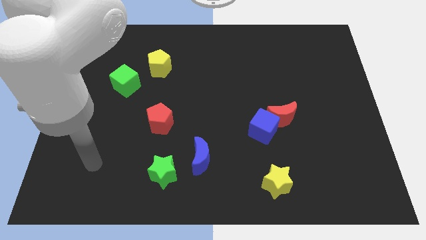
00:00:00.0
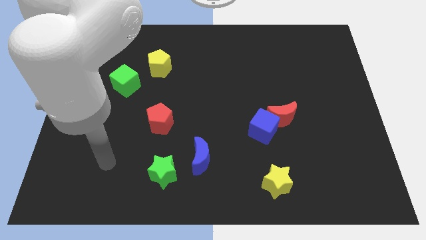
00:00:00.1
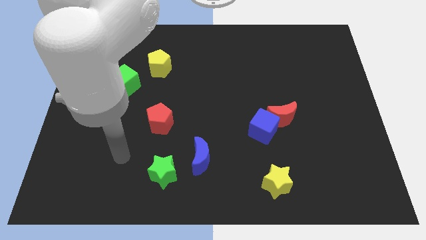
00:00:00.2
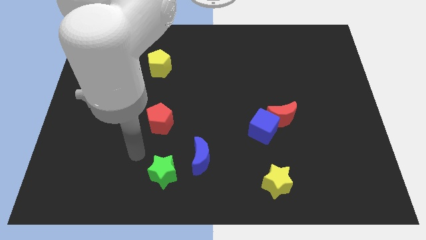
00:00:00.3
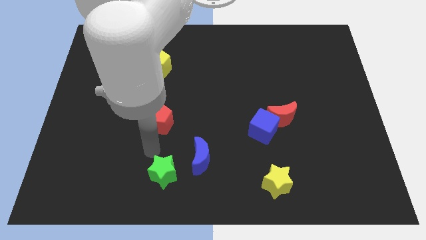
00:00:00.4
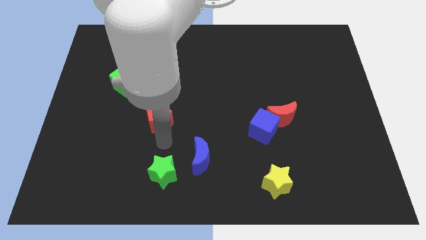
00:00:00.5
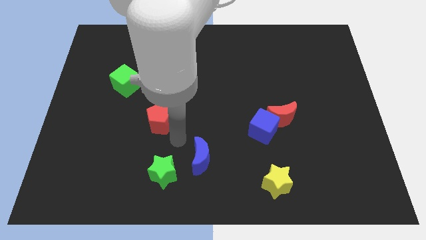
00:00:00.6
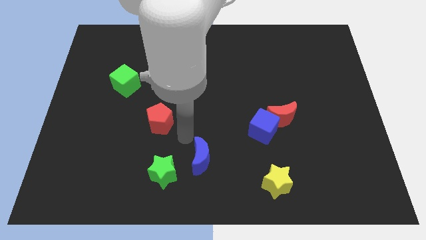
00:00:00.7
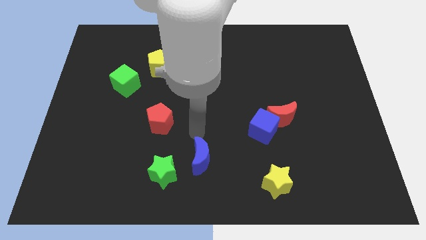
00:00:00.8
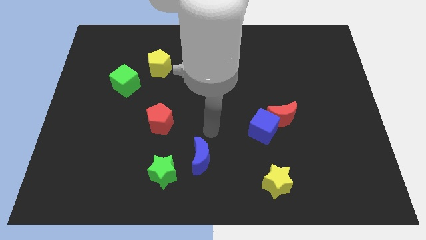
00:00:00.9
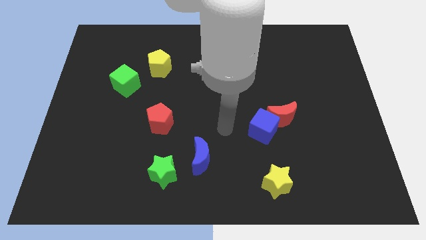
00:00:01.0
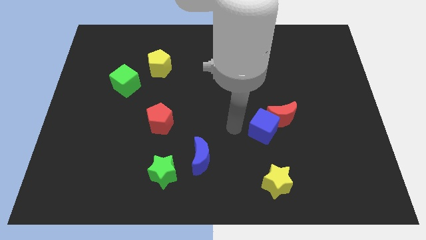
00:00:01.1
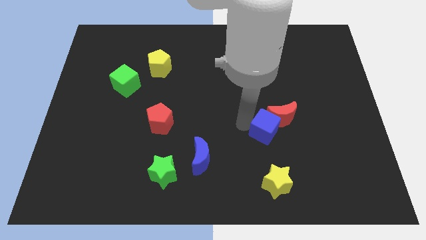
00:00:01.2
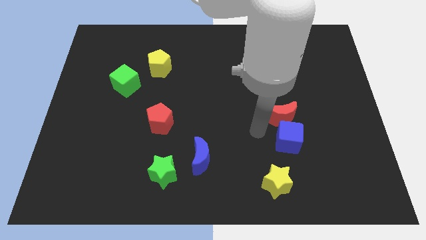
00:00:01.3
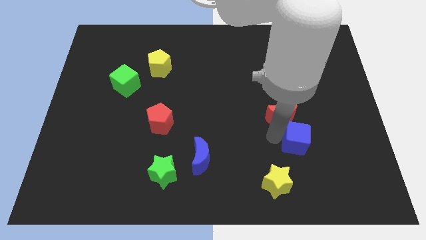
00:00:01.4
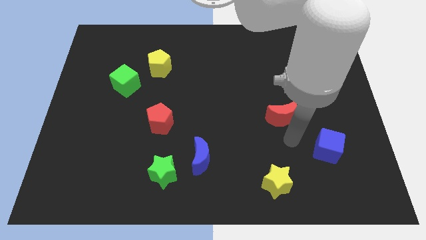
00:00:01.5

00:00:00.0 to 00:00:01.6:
separate the red moon from the blue cube

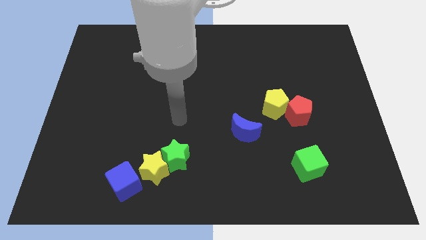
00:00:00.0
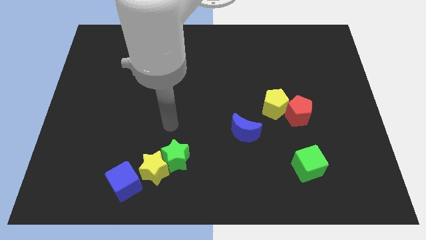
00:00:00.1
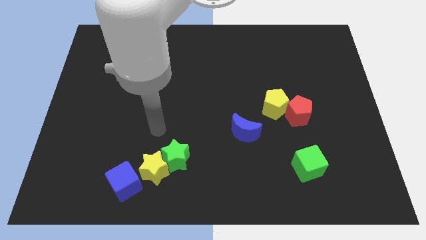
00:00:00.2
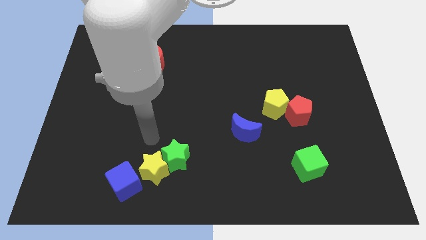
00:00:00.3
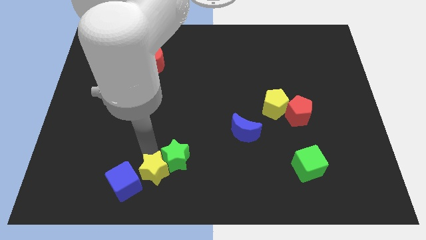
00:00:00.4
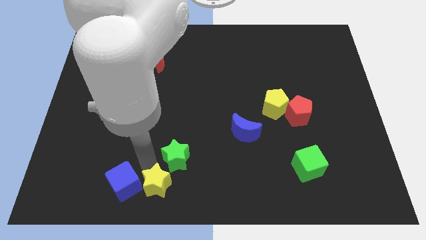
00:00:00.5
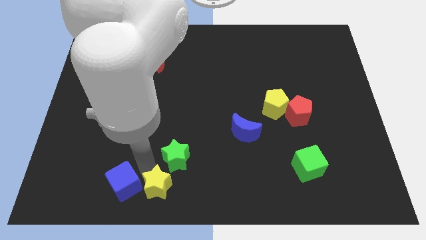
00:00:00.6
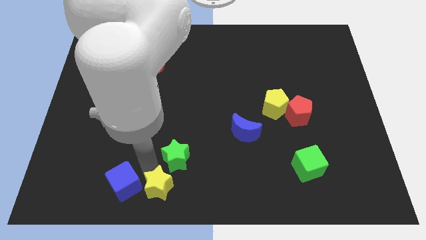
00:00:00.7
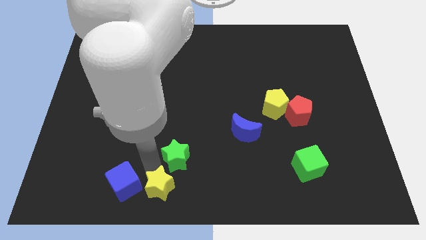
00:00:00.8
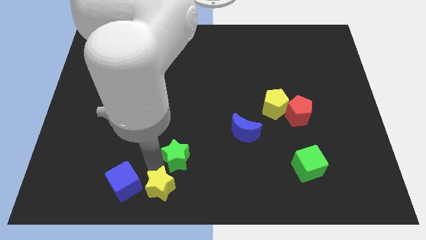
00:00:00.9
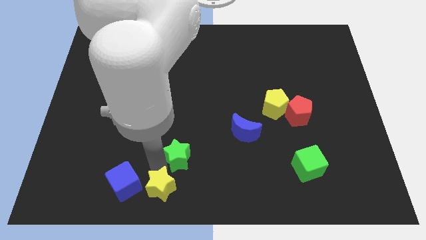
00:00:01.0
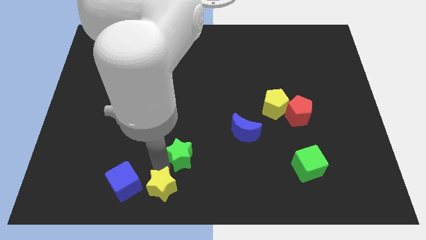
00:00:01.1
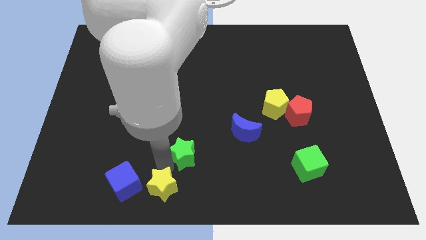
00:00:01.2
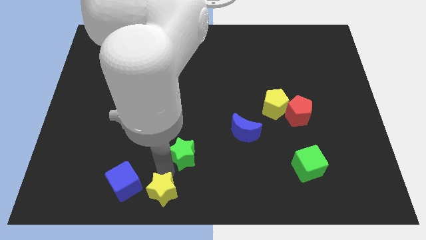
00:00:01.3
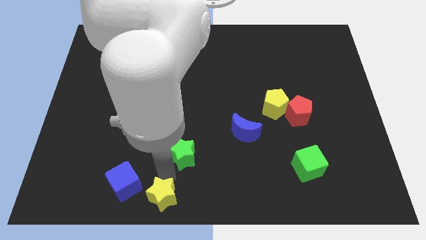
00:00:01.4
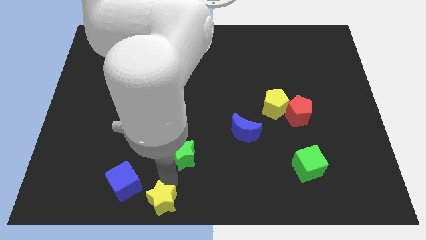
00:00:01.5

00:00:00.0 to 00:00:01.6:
move the green star away from the yellow star

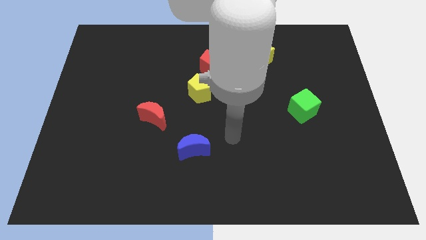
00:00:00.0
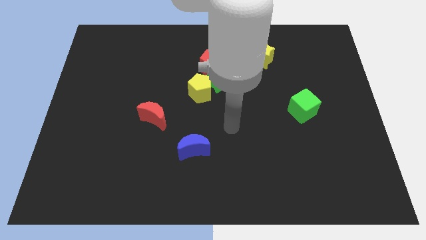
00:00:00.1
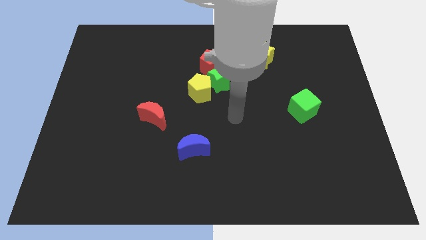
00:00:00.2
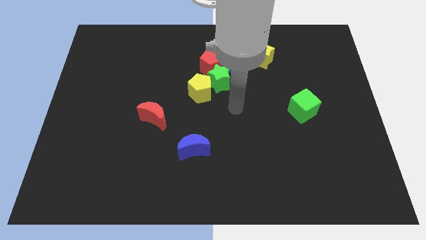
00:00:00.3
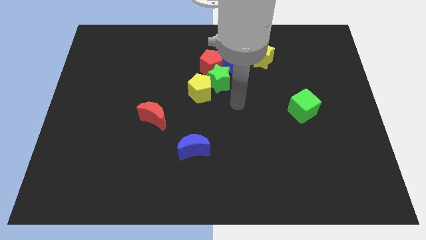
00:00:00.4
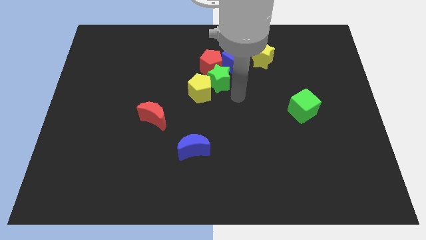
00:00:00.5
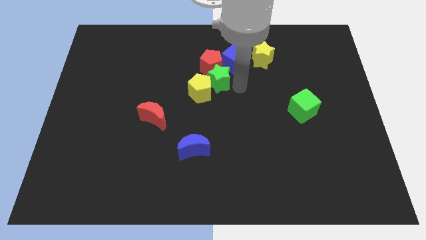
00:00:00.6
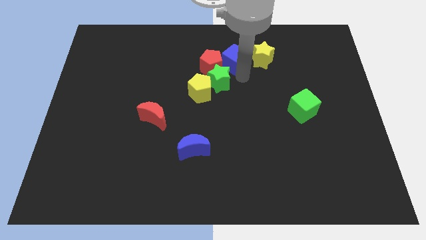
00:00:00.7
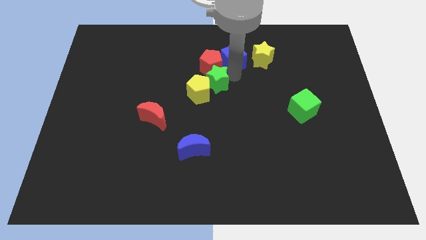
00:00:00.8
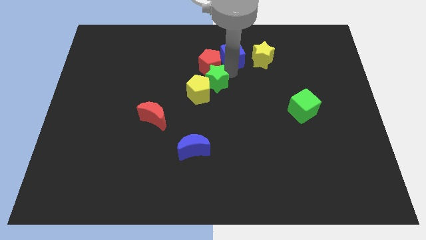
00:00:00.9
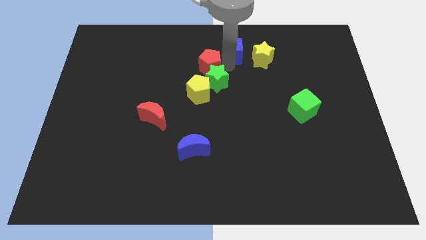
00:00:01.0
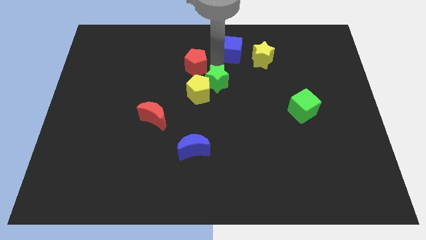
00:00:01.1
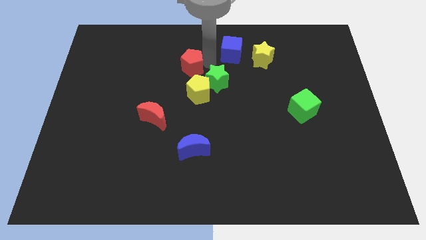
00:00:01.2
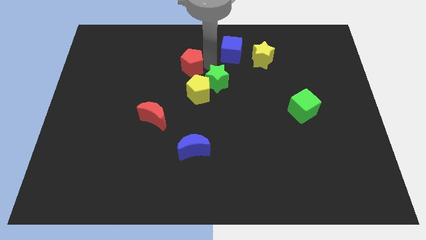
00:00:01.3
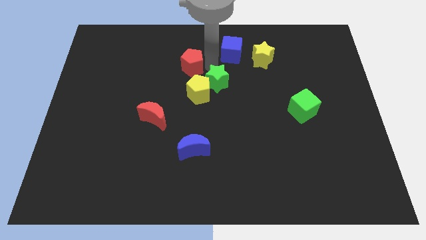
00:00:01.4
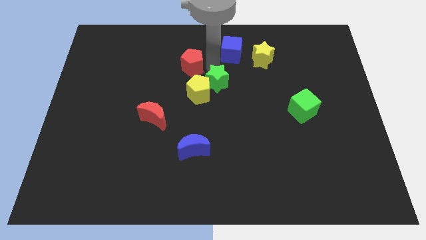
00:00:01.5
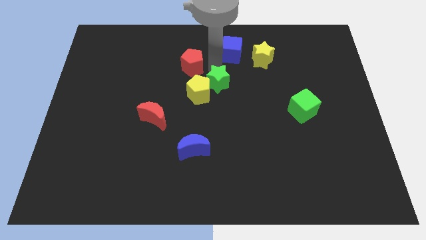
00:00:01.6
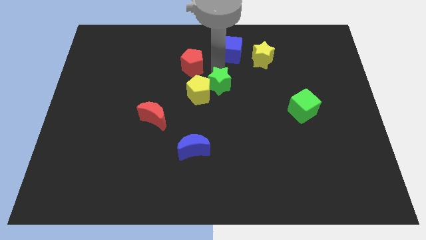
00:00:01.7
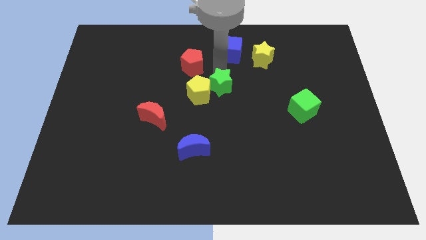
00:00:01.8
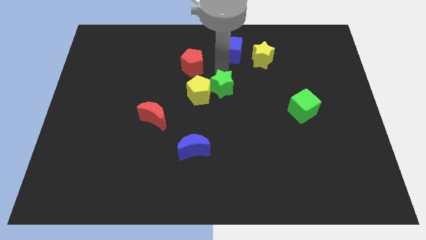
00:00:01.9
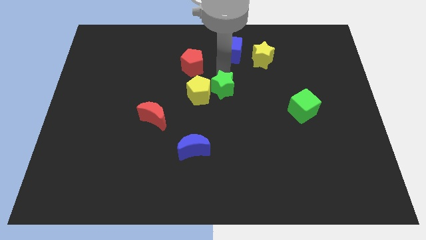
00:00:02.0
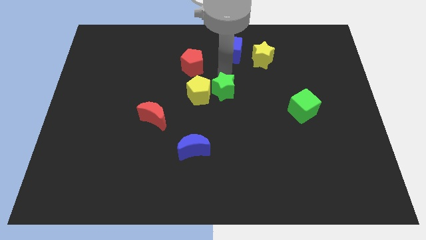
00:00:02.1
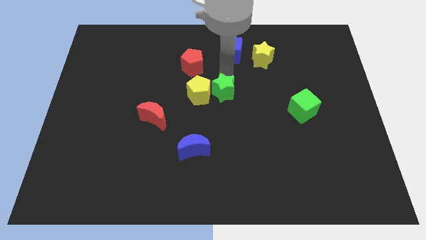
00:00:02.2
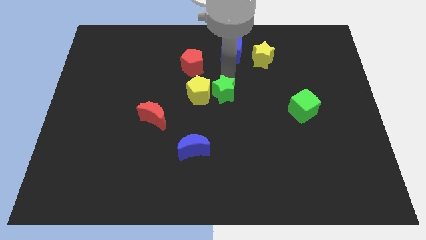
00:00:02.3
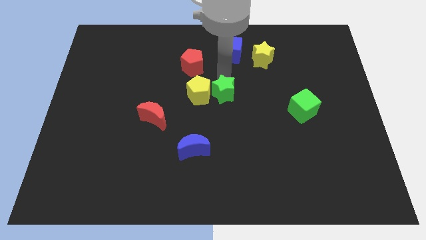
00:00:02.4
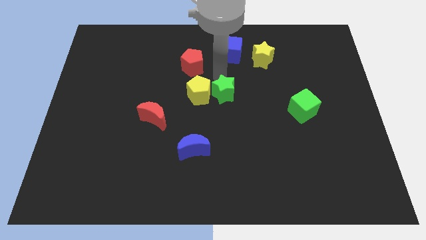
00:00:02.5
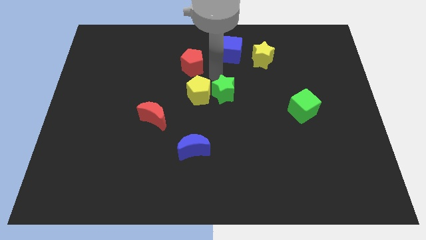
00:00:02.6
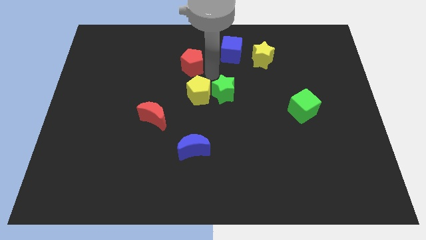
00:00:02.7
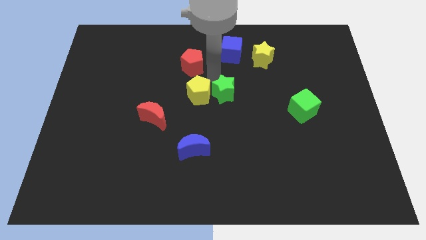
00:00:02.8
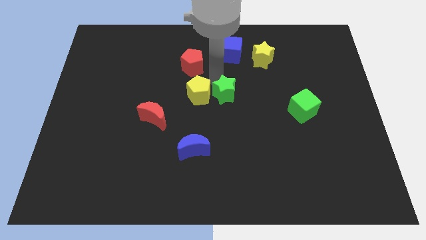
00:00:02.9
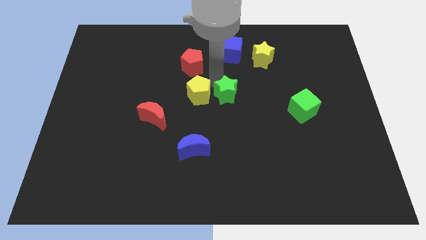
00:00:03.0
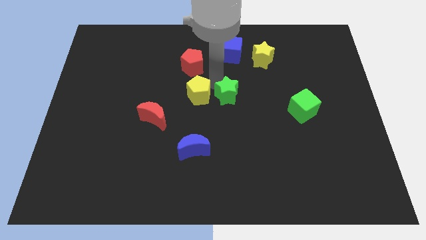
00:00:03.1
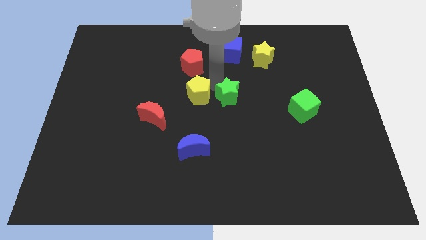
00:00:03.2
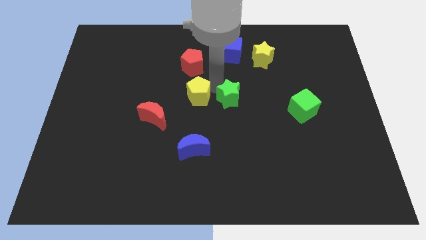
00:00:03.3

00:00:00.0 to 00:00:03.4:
separate the green star from the group of blocks

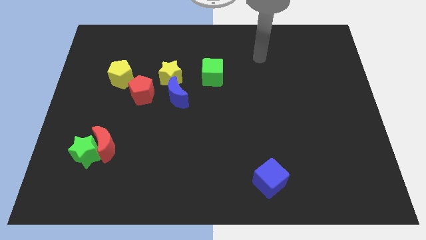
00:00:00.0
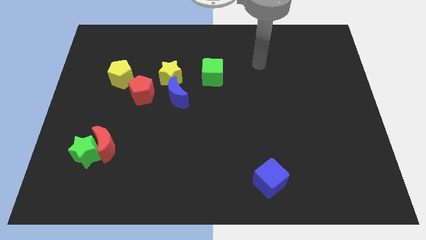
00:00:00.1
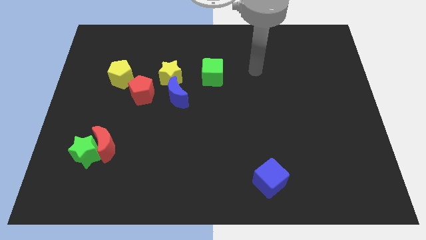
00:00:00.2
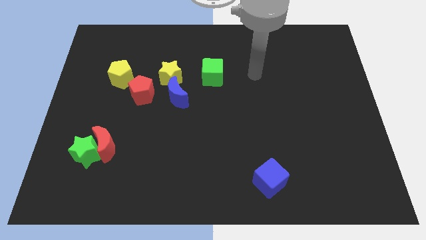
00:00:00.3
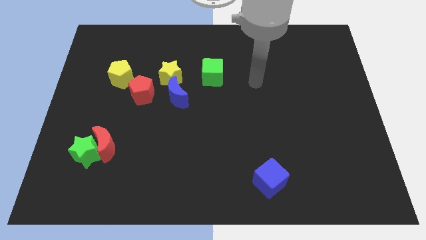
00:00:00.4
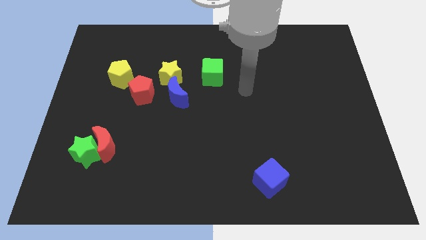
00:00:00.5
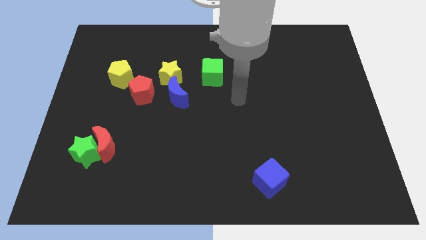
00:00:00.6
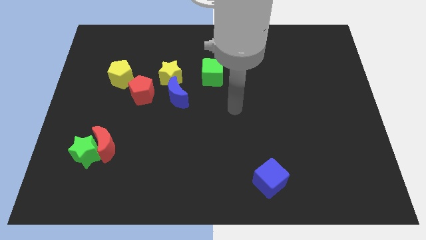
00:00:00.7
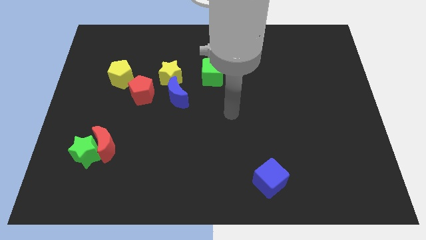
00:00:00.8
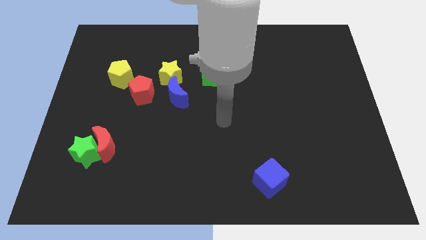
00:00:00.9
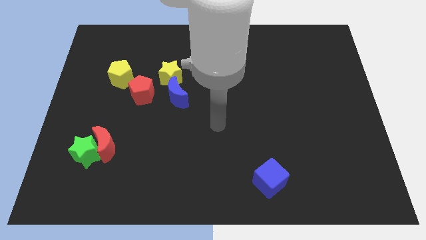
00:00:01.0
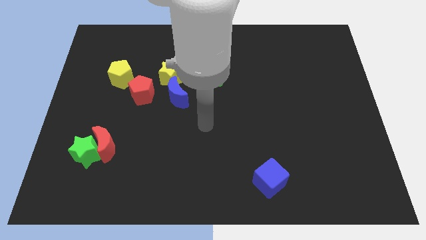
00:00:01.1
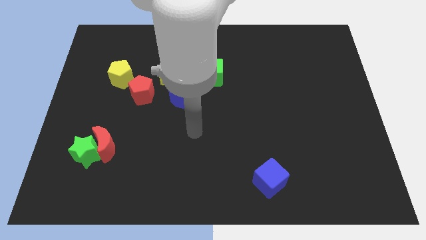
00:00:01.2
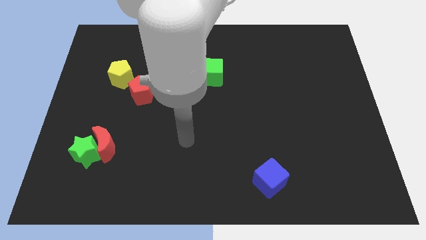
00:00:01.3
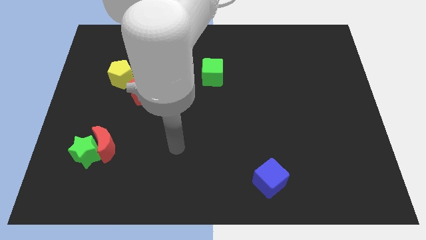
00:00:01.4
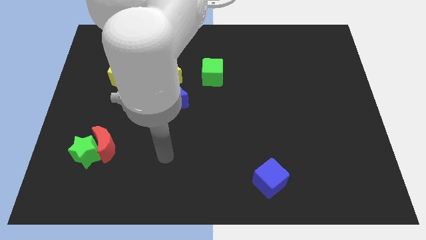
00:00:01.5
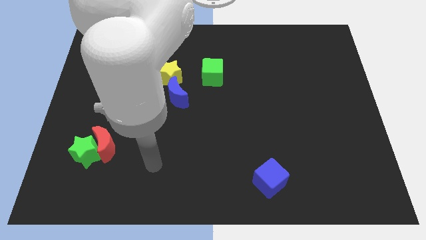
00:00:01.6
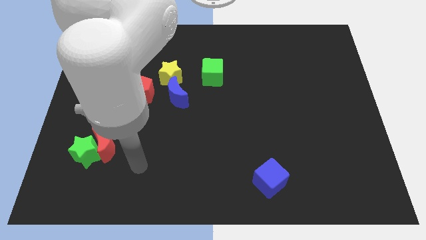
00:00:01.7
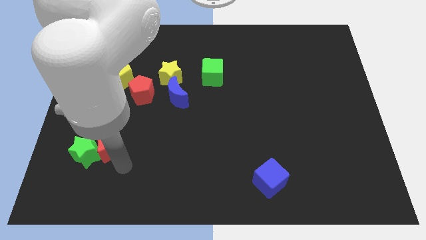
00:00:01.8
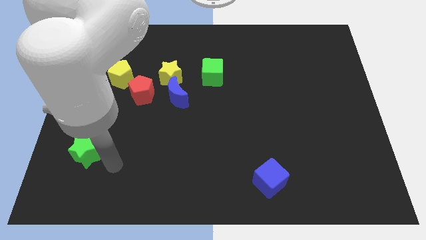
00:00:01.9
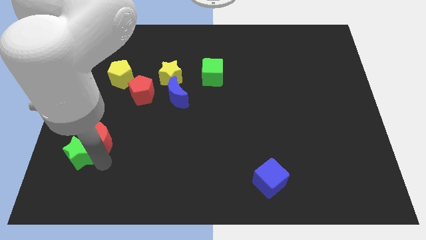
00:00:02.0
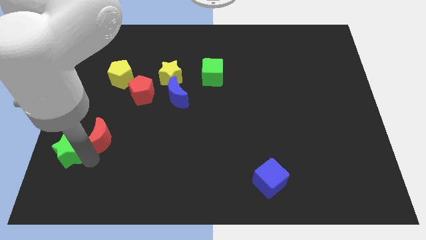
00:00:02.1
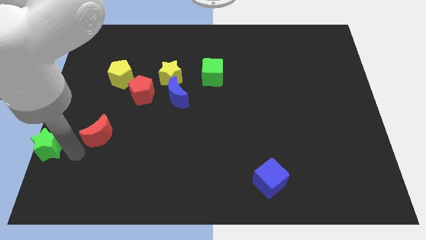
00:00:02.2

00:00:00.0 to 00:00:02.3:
separate the red moon from the green star

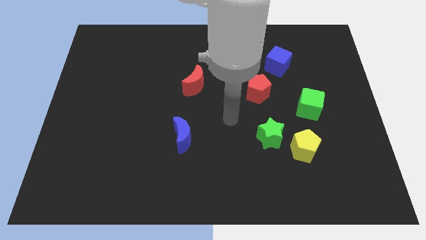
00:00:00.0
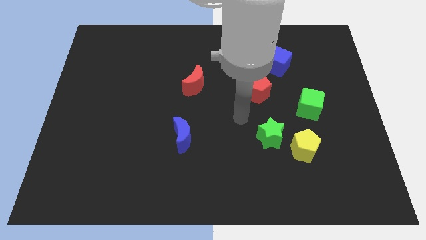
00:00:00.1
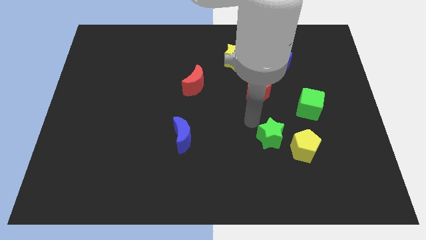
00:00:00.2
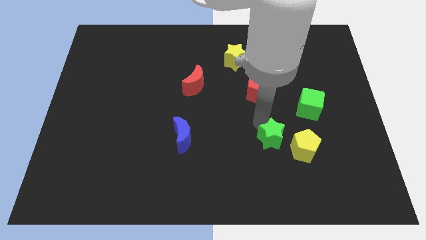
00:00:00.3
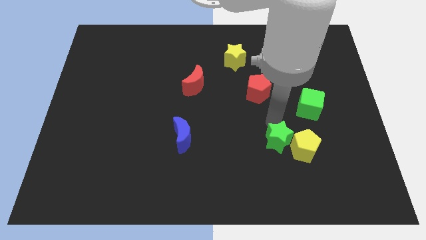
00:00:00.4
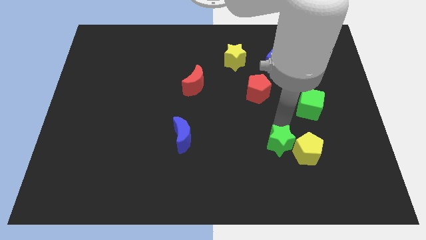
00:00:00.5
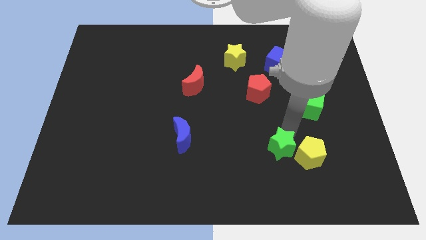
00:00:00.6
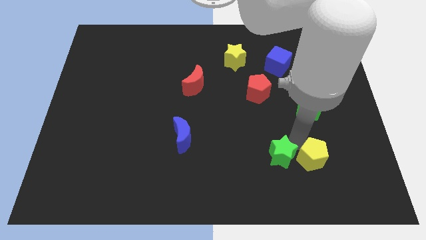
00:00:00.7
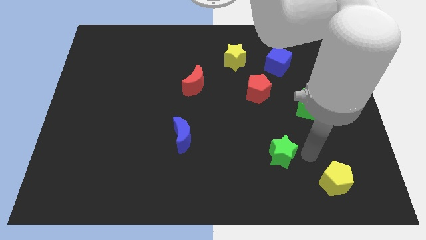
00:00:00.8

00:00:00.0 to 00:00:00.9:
move the green star away from the yellow pentagon
